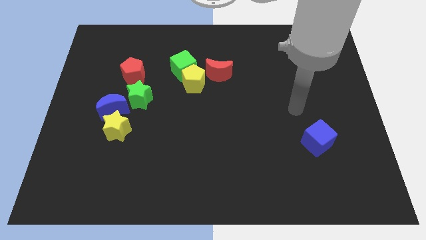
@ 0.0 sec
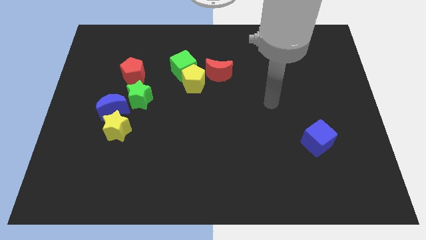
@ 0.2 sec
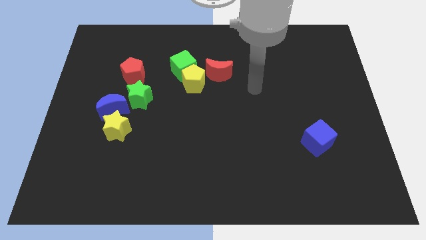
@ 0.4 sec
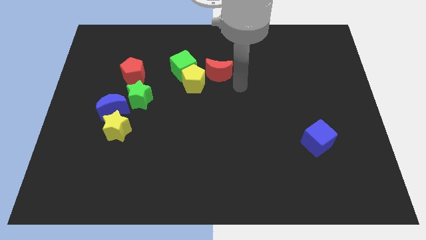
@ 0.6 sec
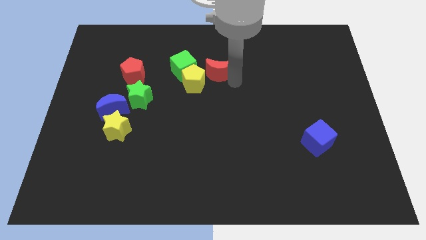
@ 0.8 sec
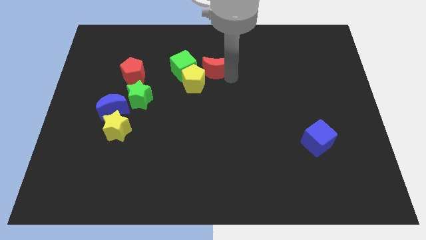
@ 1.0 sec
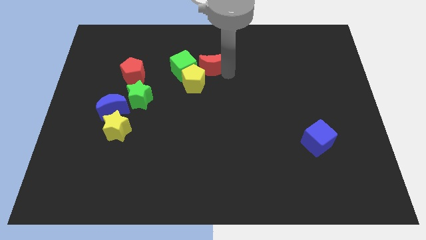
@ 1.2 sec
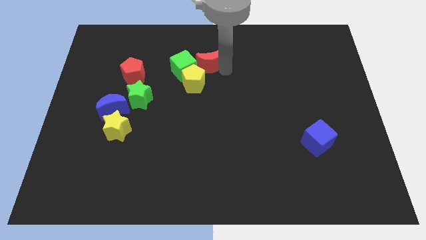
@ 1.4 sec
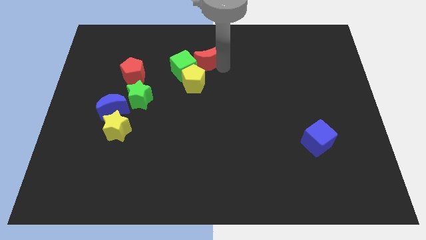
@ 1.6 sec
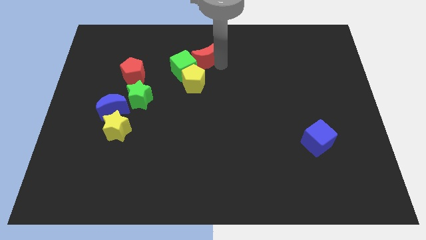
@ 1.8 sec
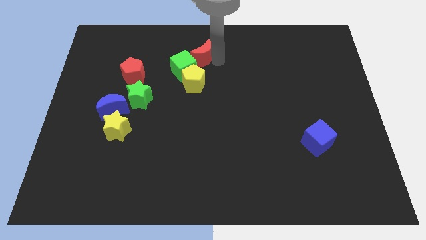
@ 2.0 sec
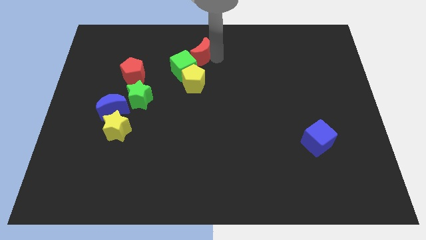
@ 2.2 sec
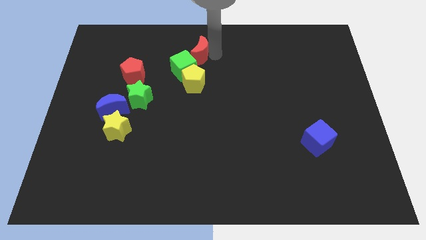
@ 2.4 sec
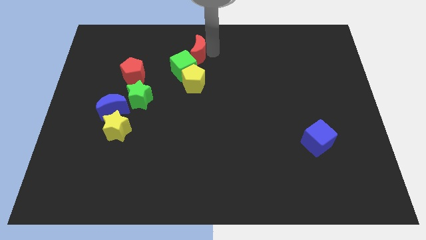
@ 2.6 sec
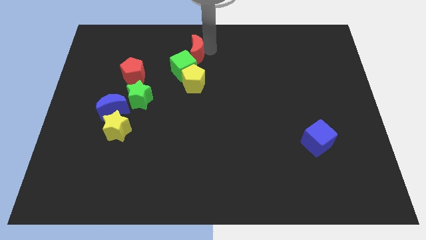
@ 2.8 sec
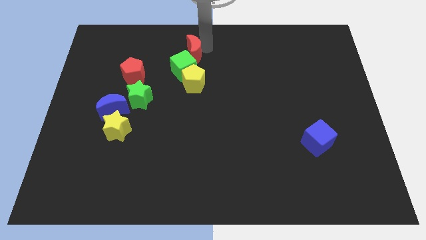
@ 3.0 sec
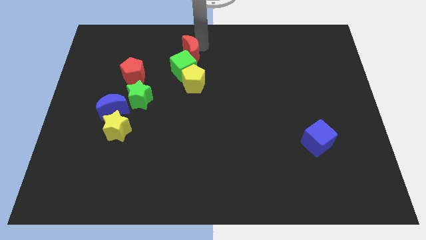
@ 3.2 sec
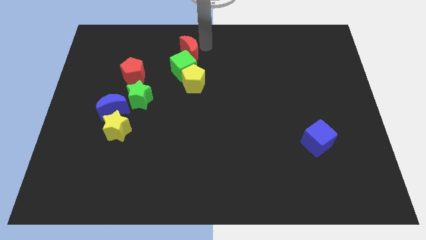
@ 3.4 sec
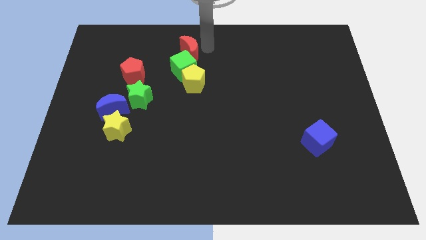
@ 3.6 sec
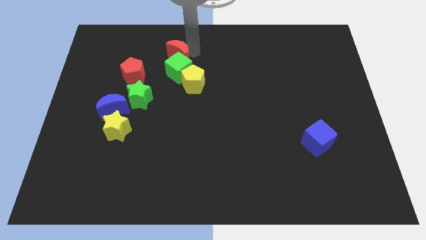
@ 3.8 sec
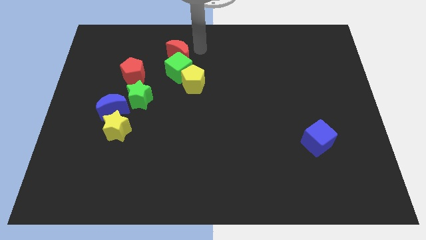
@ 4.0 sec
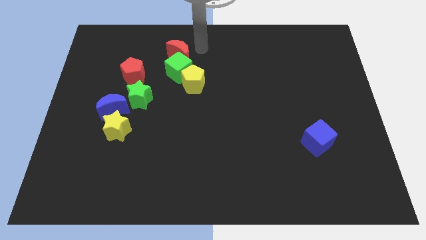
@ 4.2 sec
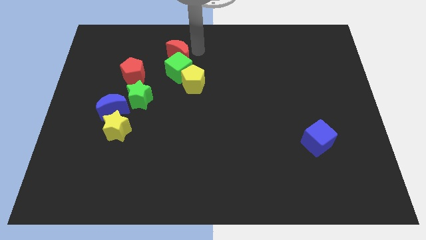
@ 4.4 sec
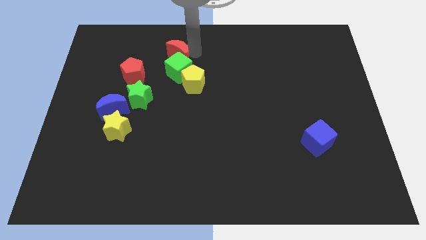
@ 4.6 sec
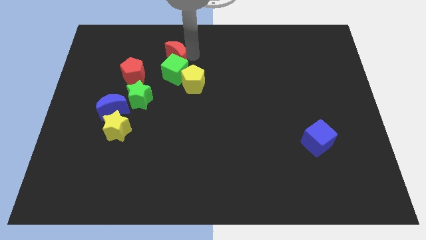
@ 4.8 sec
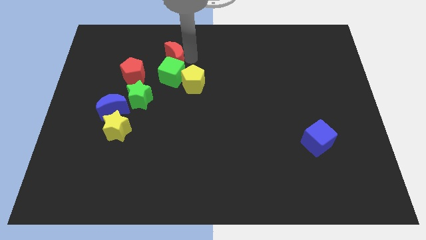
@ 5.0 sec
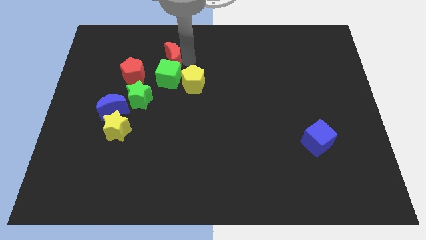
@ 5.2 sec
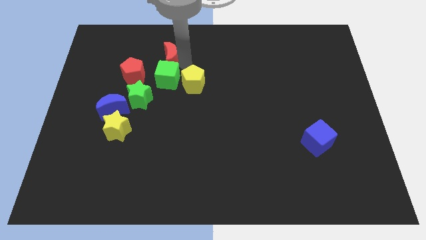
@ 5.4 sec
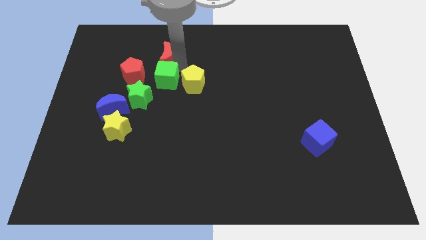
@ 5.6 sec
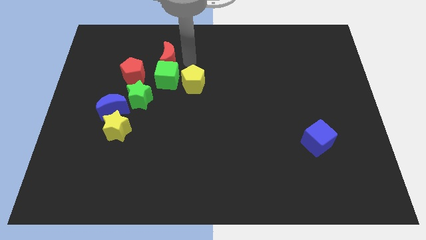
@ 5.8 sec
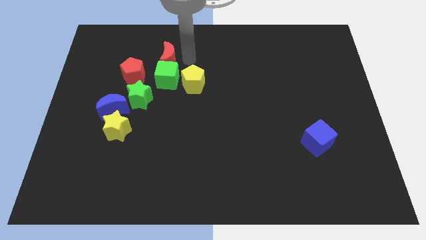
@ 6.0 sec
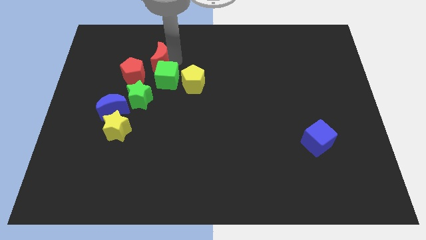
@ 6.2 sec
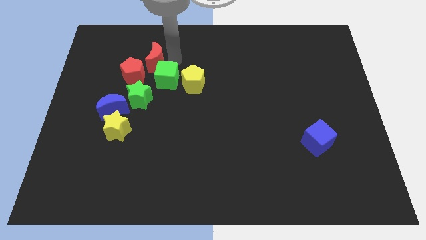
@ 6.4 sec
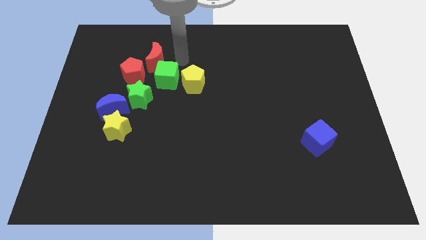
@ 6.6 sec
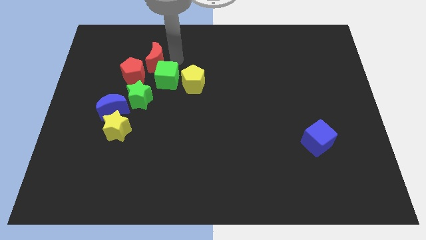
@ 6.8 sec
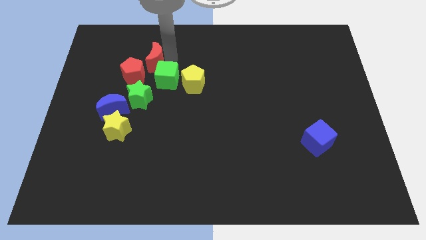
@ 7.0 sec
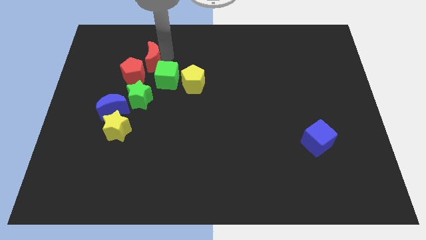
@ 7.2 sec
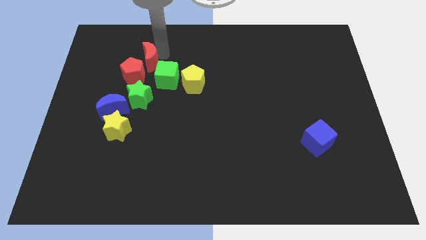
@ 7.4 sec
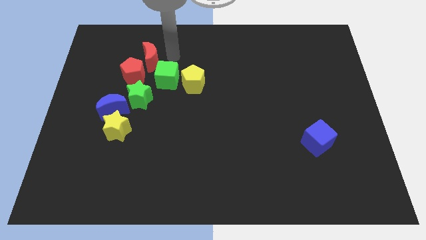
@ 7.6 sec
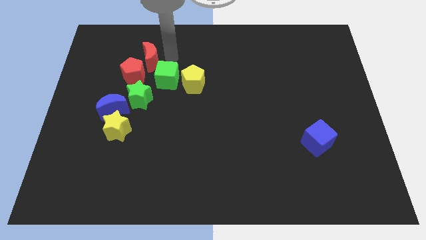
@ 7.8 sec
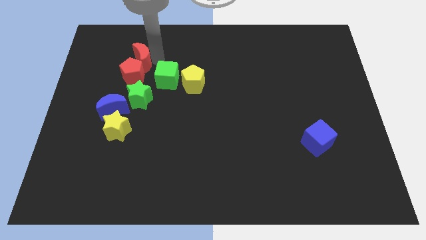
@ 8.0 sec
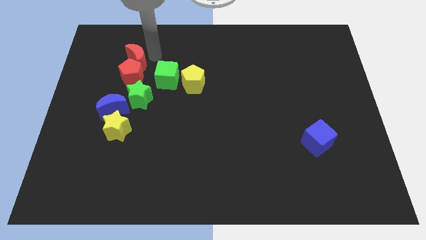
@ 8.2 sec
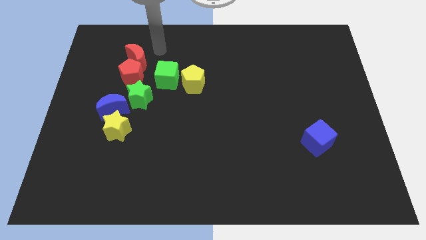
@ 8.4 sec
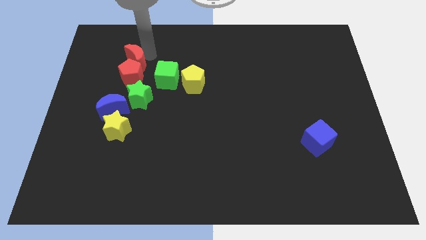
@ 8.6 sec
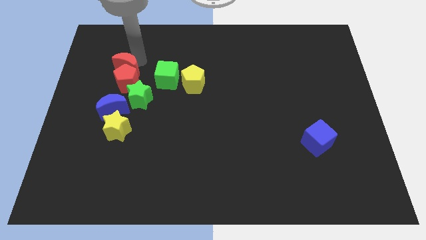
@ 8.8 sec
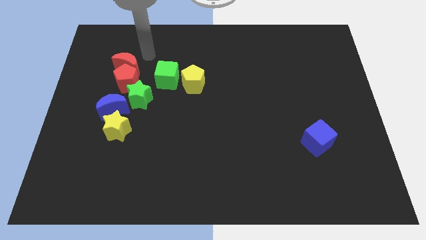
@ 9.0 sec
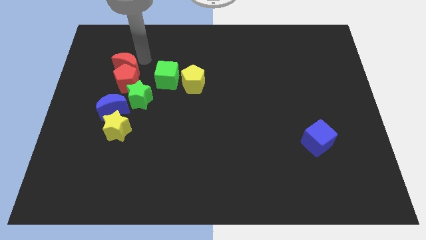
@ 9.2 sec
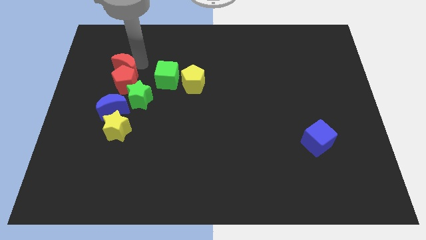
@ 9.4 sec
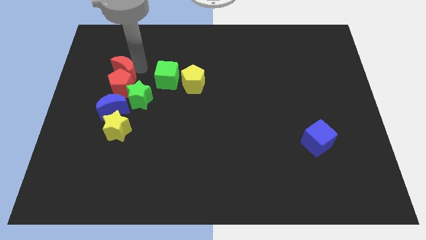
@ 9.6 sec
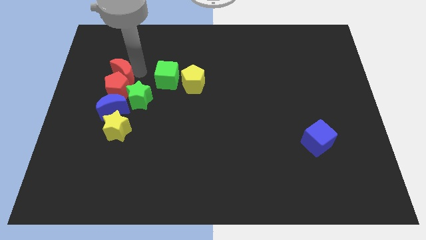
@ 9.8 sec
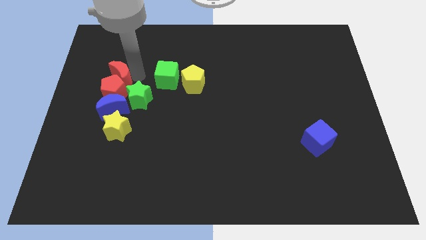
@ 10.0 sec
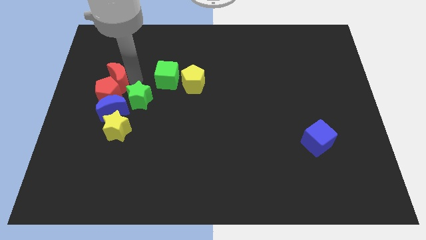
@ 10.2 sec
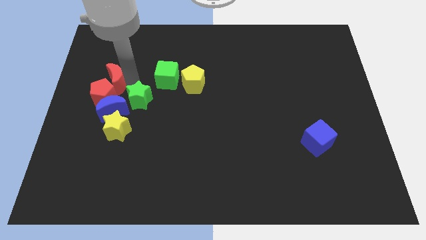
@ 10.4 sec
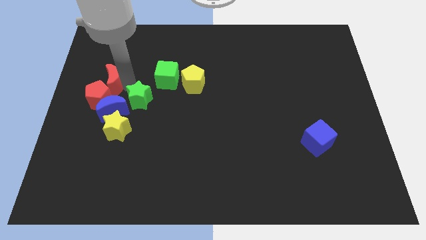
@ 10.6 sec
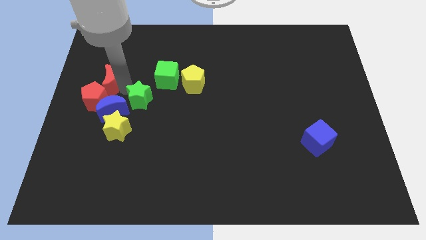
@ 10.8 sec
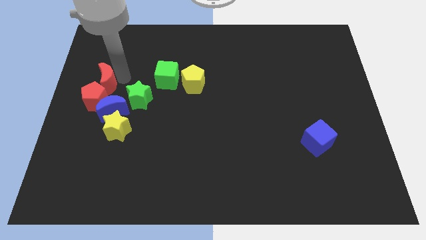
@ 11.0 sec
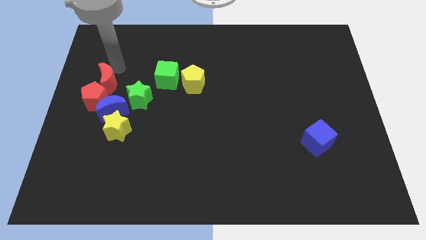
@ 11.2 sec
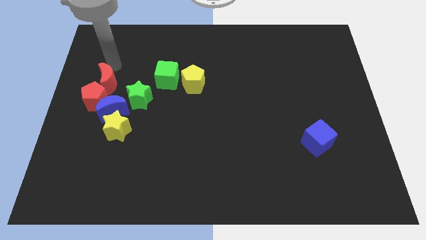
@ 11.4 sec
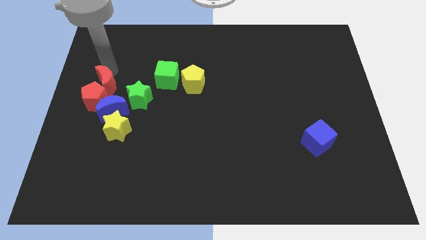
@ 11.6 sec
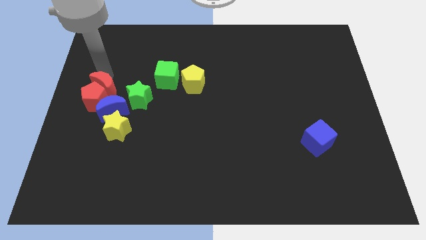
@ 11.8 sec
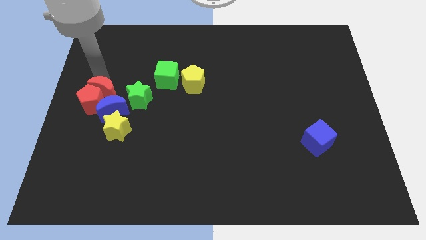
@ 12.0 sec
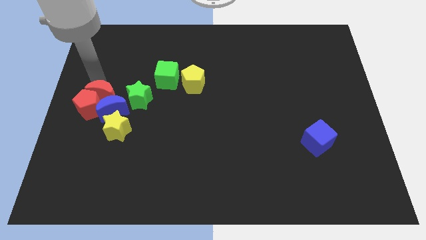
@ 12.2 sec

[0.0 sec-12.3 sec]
put the red moon diagonally up and to the left of the yellow star

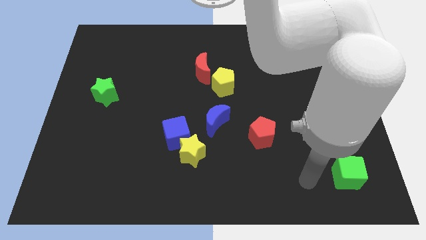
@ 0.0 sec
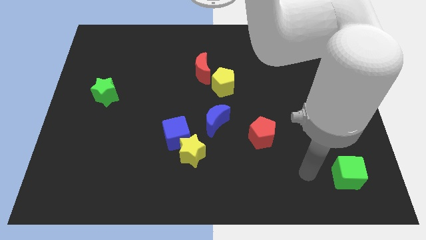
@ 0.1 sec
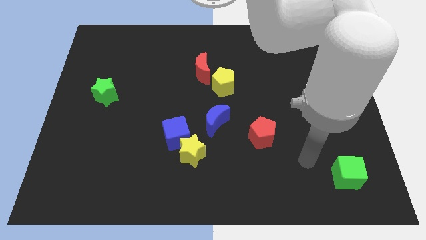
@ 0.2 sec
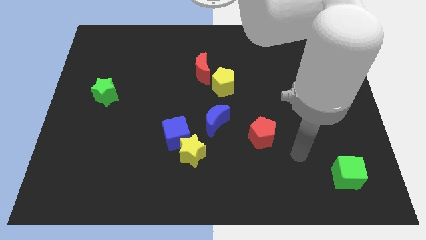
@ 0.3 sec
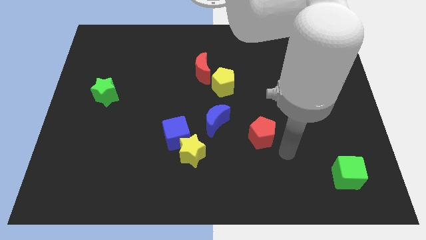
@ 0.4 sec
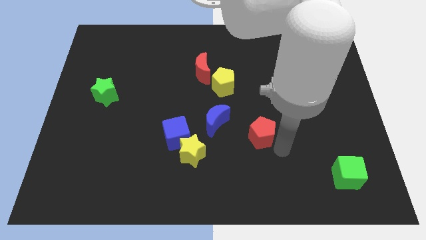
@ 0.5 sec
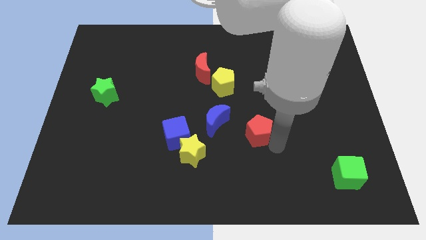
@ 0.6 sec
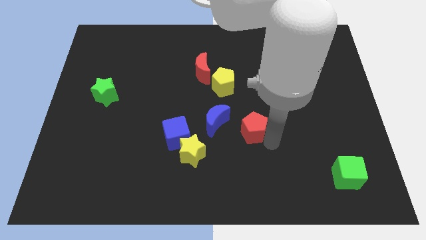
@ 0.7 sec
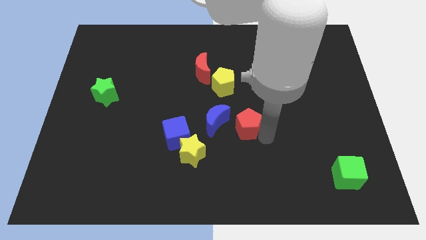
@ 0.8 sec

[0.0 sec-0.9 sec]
slide the red pentagon just right of the blue cube
